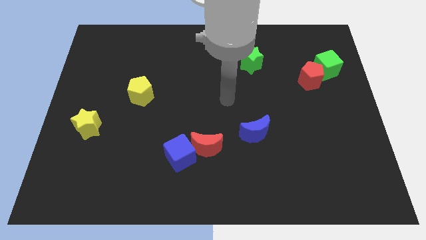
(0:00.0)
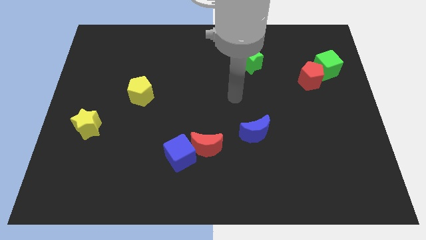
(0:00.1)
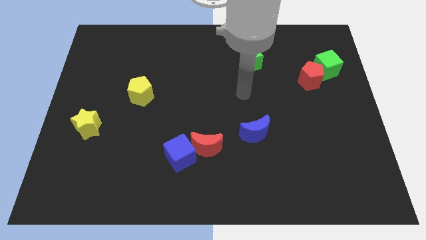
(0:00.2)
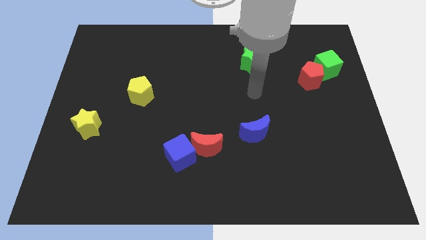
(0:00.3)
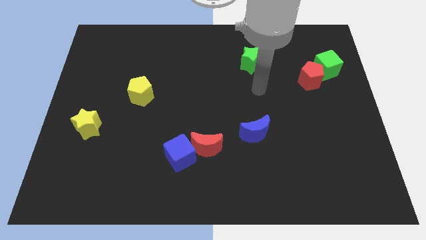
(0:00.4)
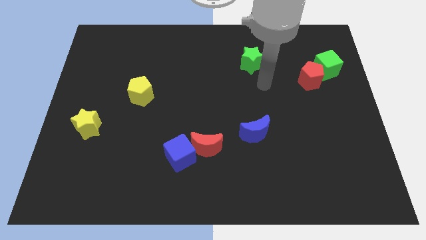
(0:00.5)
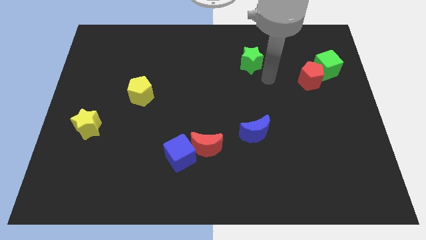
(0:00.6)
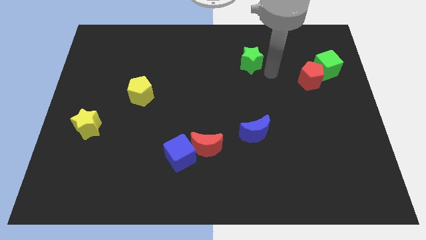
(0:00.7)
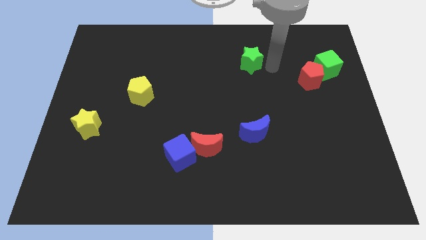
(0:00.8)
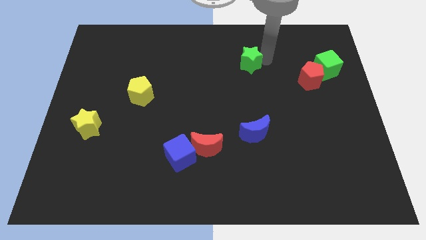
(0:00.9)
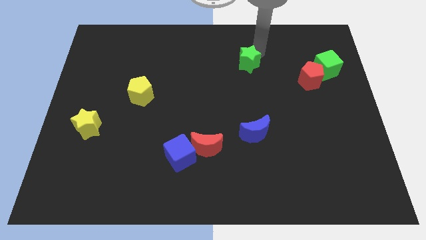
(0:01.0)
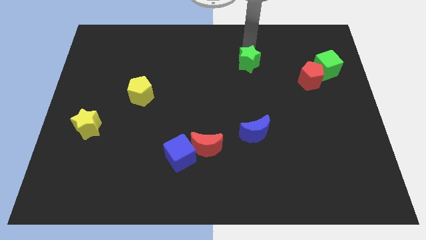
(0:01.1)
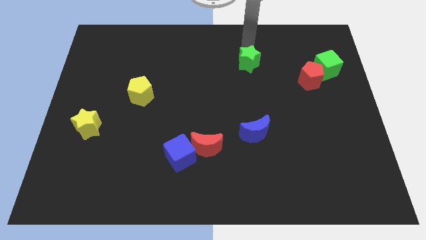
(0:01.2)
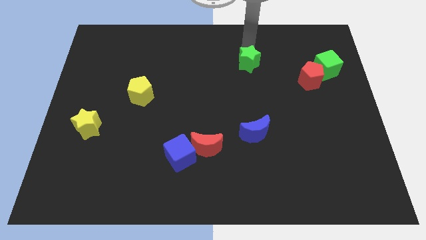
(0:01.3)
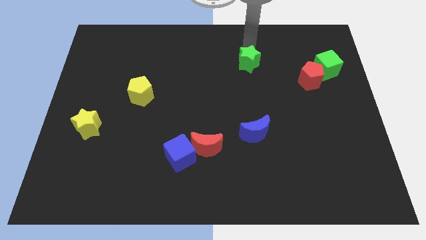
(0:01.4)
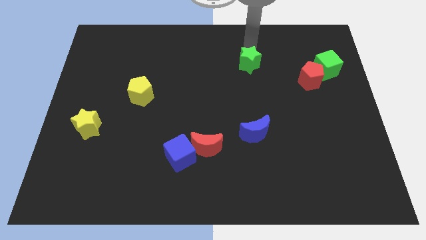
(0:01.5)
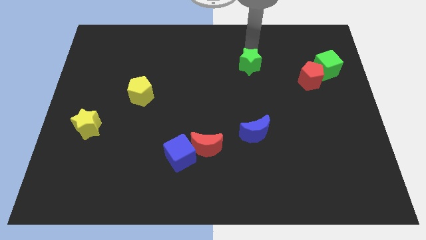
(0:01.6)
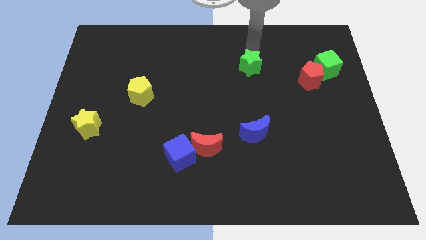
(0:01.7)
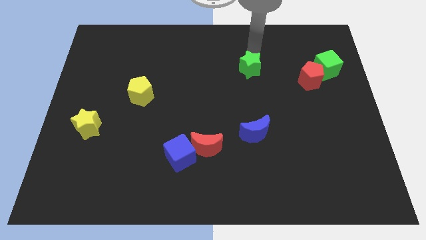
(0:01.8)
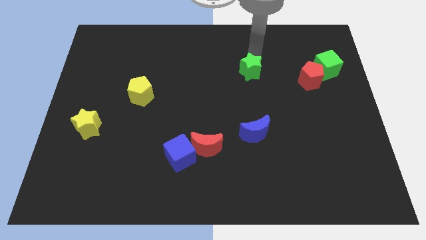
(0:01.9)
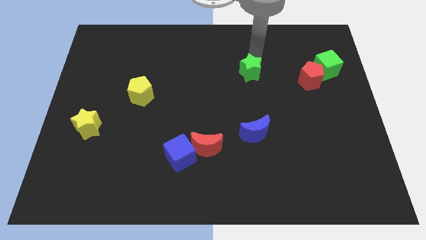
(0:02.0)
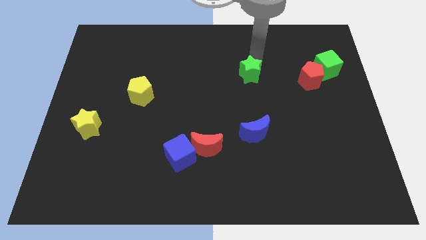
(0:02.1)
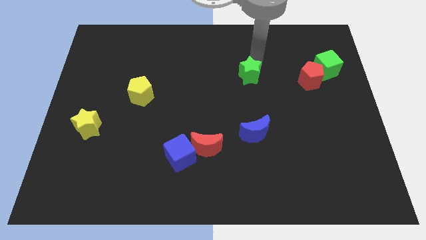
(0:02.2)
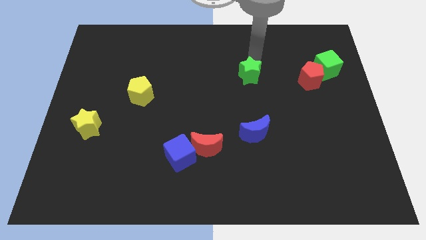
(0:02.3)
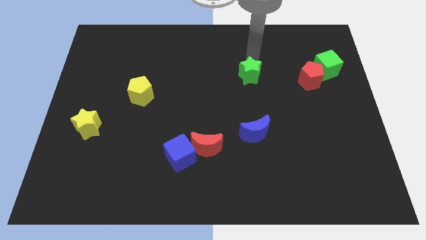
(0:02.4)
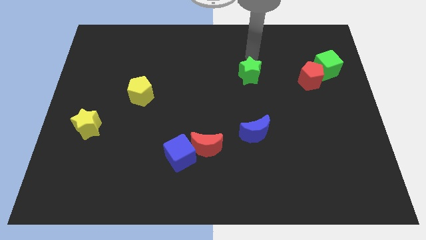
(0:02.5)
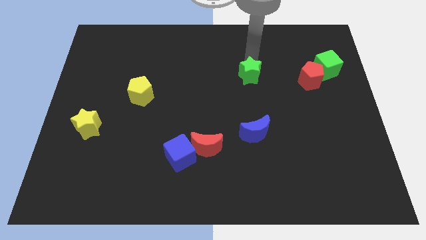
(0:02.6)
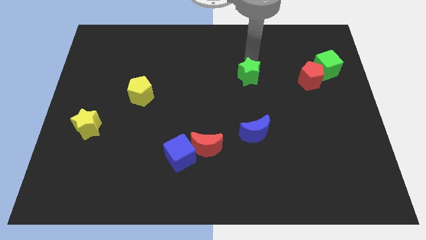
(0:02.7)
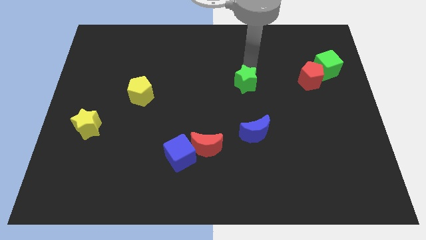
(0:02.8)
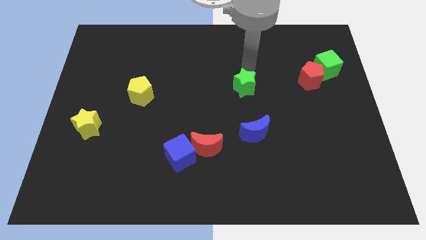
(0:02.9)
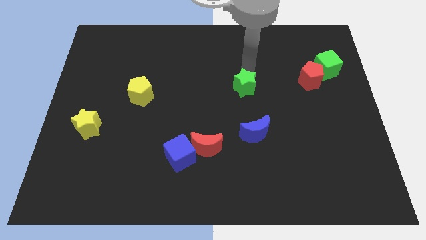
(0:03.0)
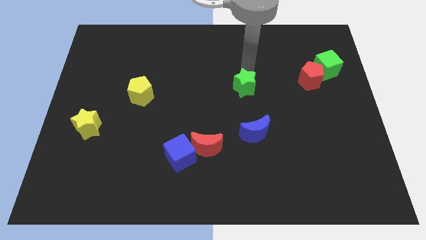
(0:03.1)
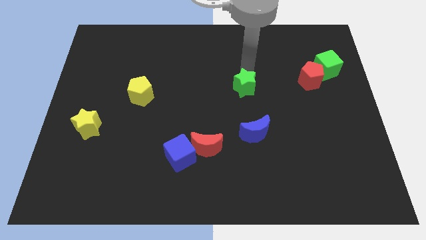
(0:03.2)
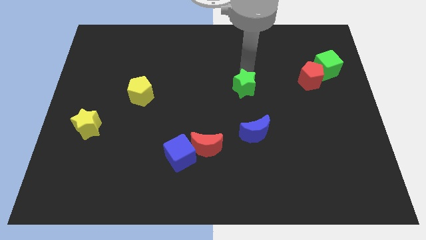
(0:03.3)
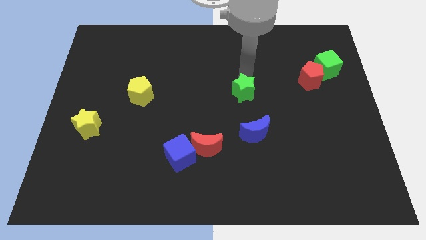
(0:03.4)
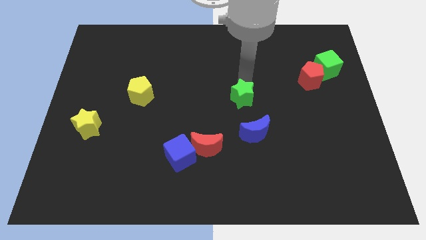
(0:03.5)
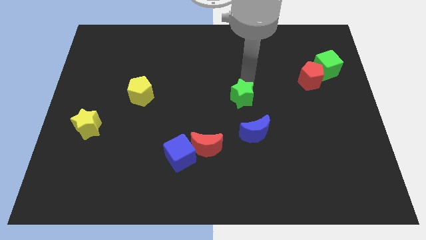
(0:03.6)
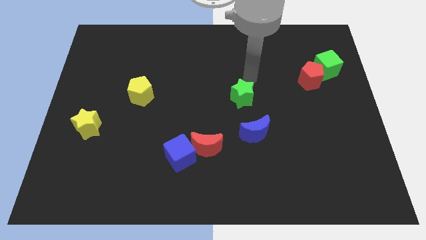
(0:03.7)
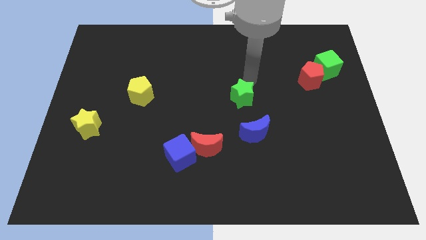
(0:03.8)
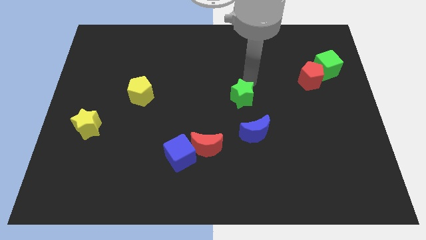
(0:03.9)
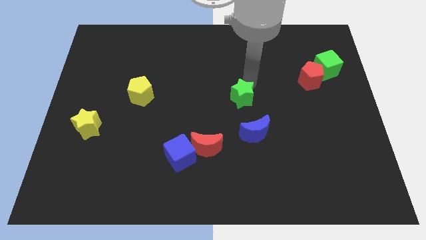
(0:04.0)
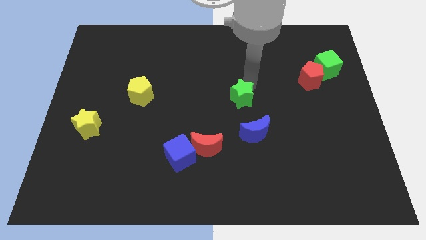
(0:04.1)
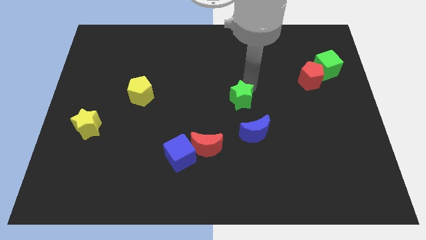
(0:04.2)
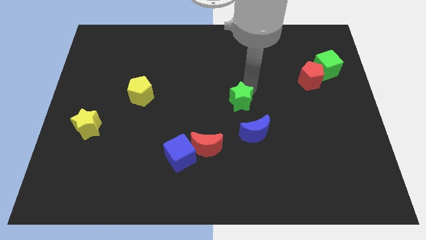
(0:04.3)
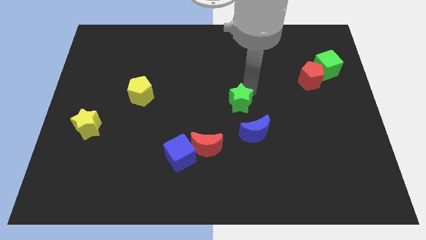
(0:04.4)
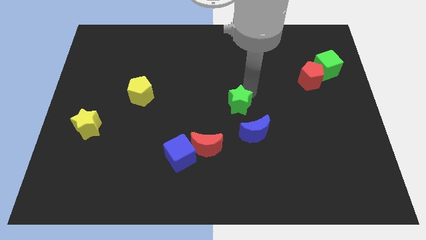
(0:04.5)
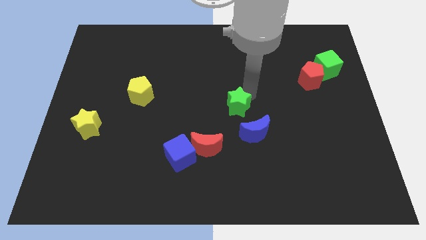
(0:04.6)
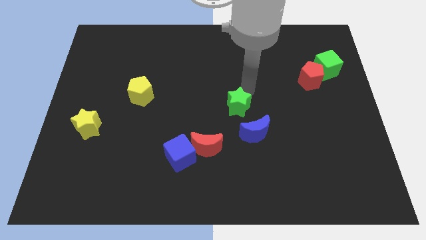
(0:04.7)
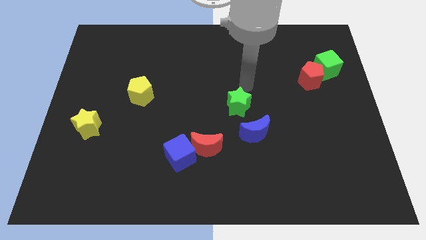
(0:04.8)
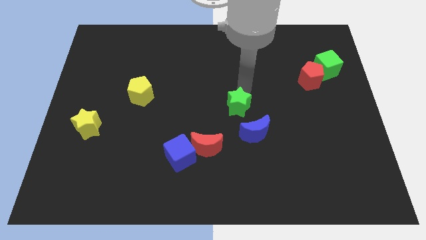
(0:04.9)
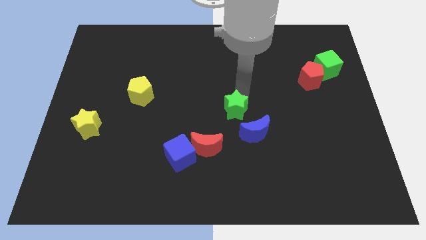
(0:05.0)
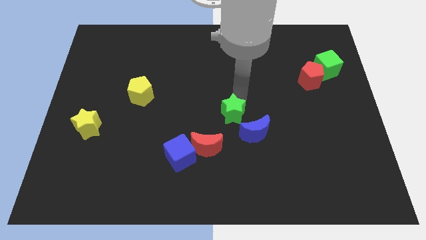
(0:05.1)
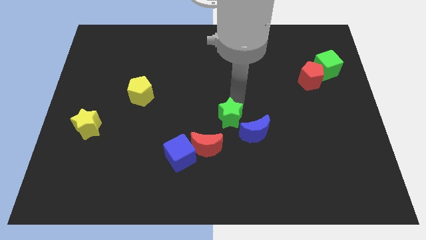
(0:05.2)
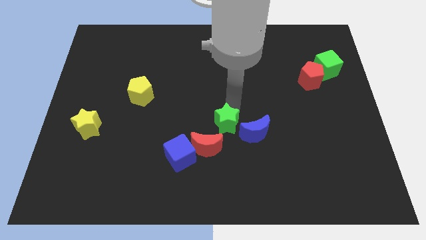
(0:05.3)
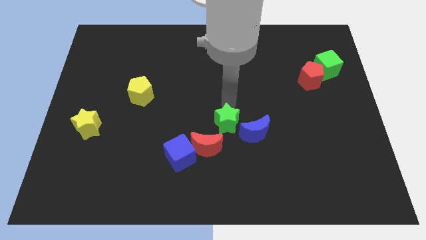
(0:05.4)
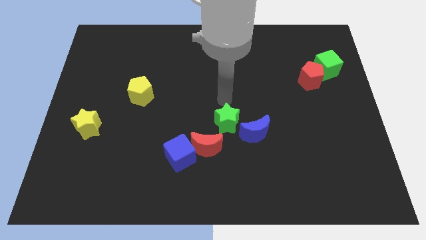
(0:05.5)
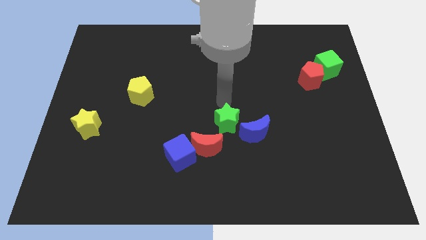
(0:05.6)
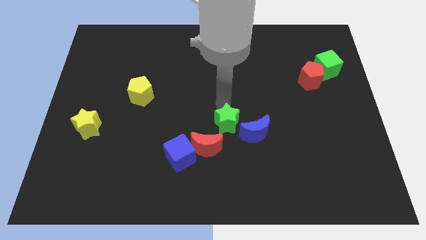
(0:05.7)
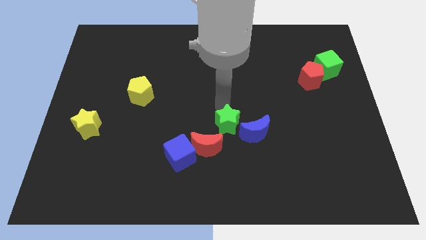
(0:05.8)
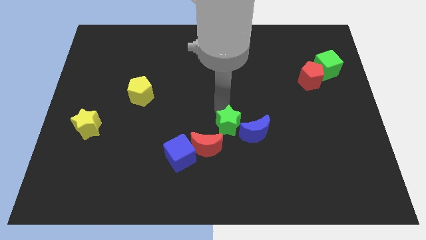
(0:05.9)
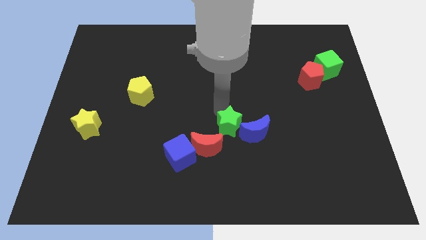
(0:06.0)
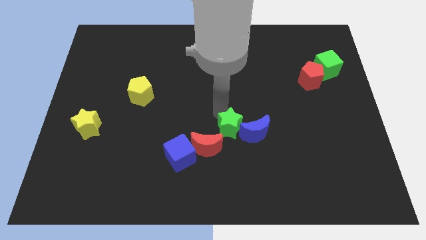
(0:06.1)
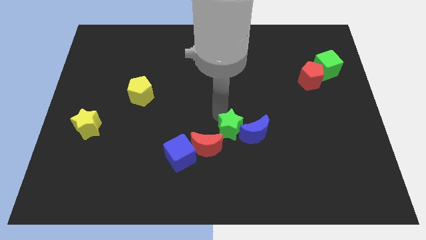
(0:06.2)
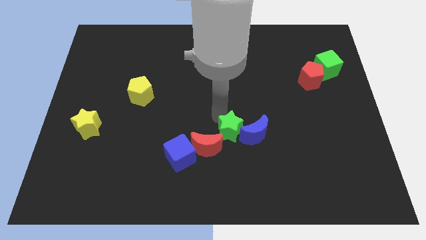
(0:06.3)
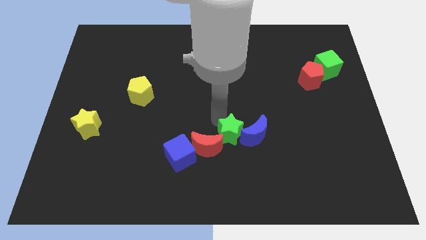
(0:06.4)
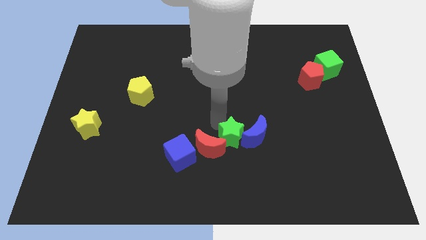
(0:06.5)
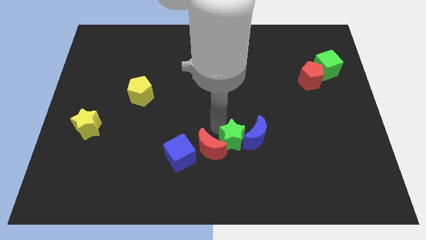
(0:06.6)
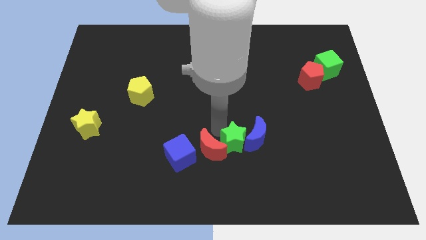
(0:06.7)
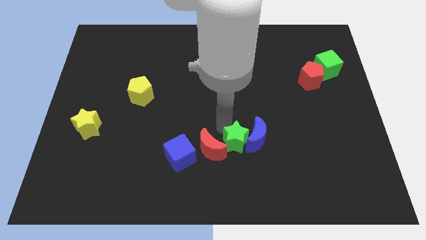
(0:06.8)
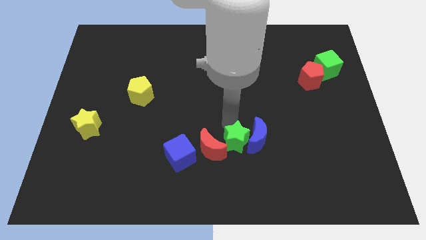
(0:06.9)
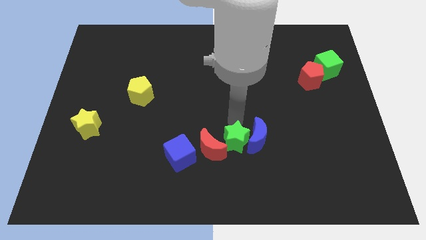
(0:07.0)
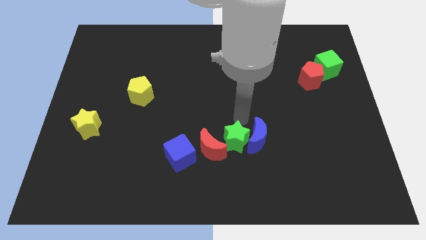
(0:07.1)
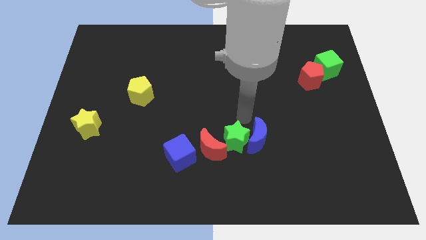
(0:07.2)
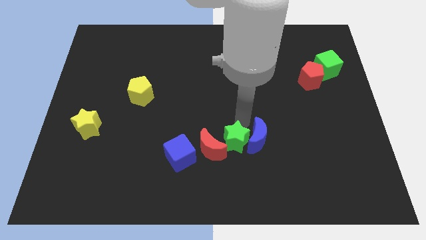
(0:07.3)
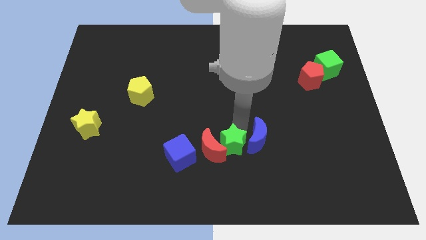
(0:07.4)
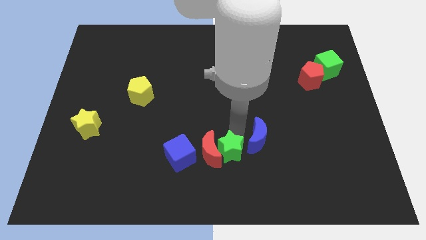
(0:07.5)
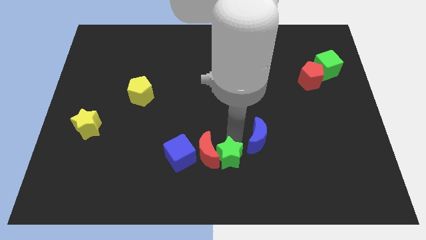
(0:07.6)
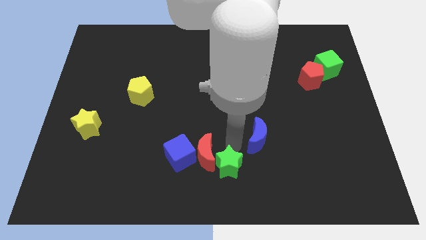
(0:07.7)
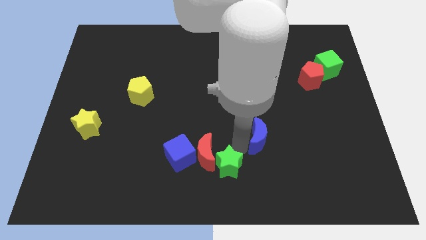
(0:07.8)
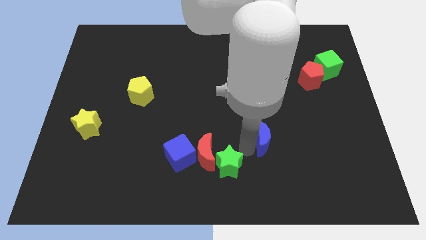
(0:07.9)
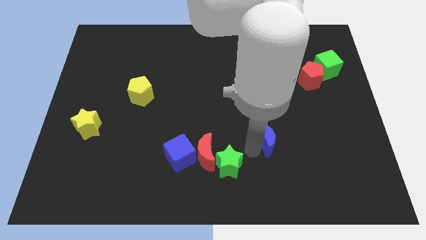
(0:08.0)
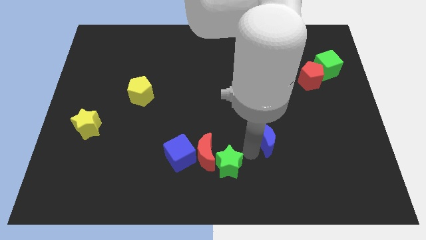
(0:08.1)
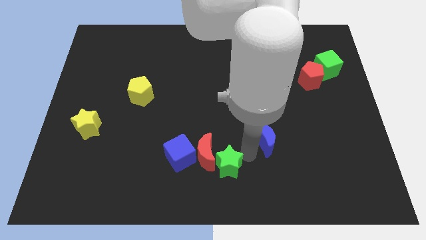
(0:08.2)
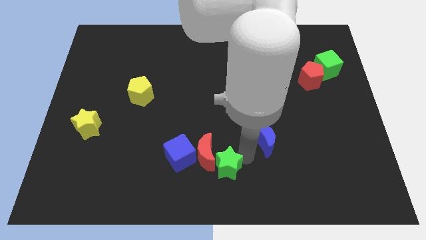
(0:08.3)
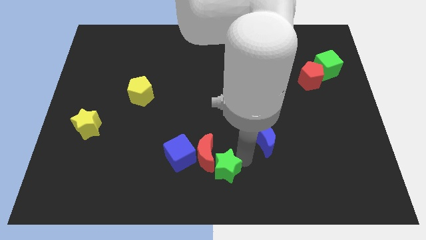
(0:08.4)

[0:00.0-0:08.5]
move the green star to the bottom right of the blue cube
